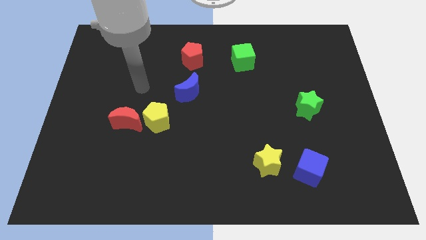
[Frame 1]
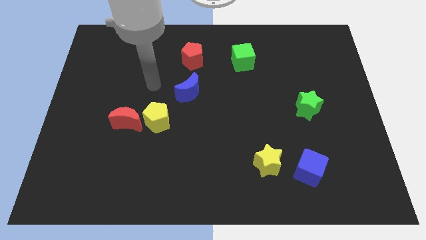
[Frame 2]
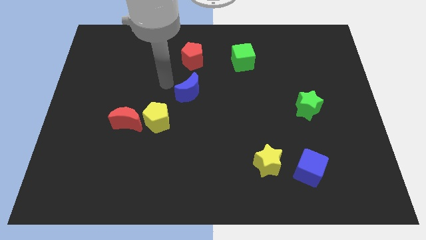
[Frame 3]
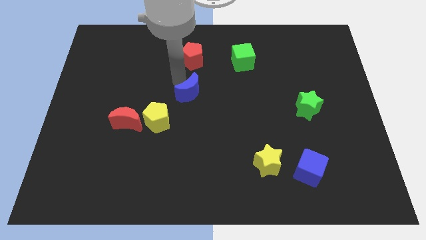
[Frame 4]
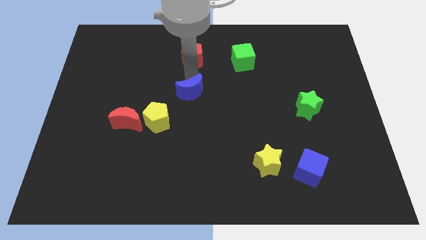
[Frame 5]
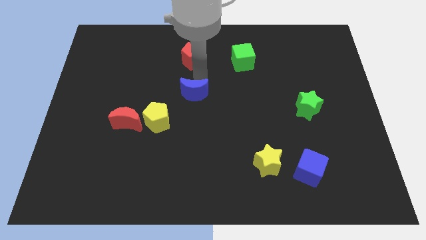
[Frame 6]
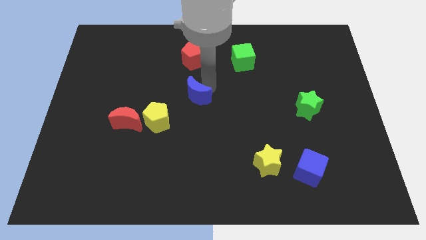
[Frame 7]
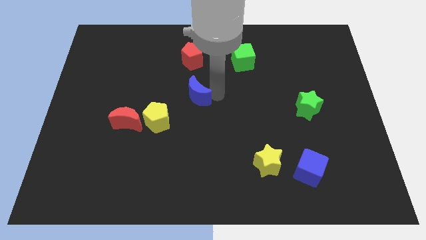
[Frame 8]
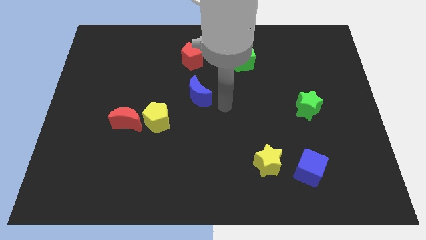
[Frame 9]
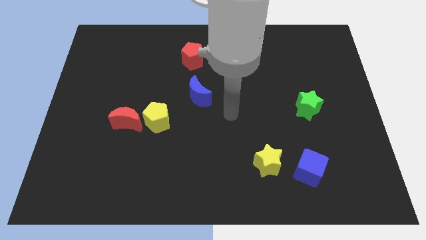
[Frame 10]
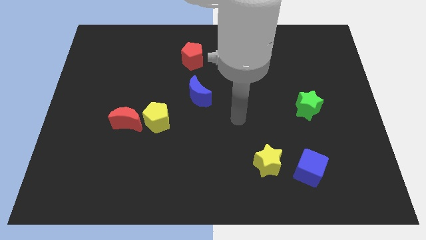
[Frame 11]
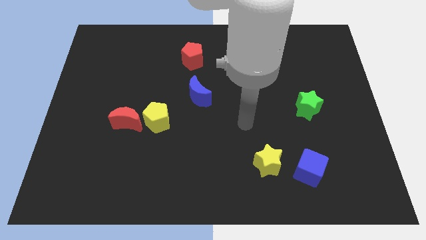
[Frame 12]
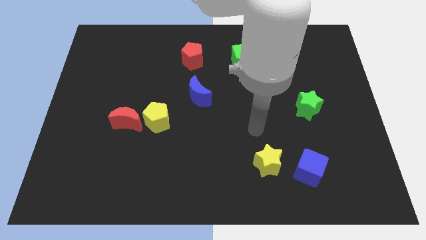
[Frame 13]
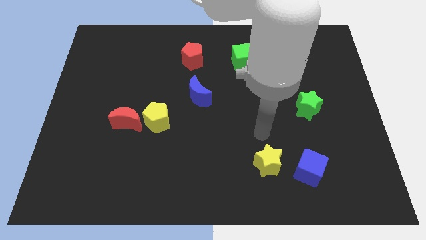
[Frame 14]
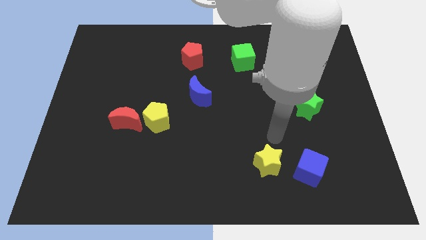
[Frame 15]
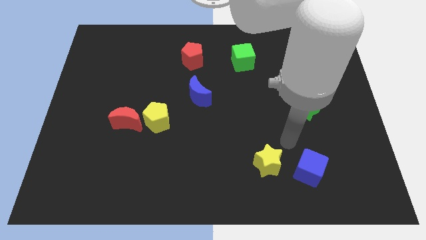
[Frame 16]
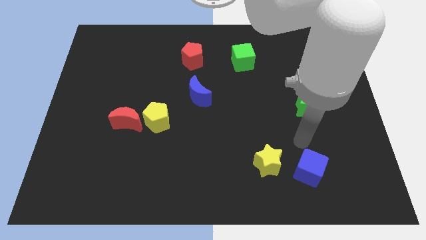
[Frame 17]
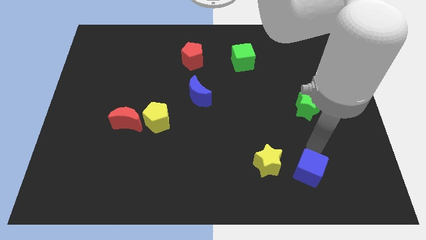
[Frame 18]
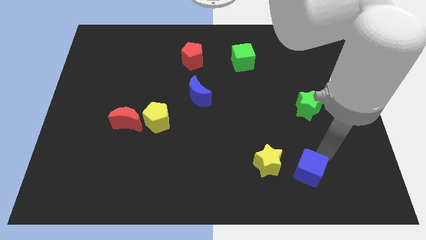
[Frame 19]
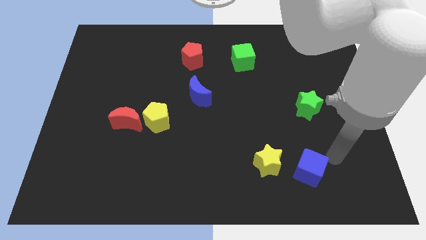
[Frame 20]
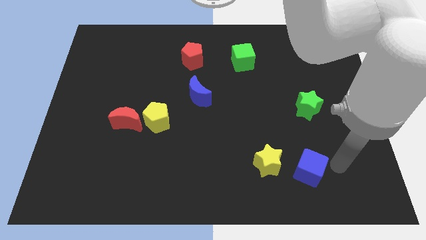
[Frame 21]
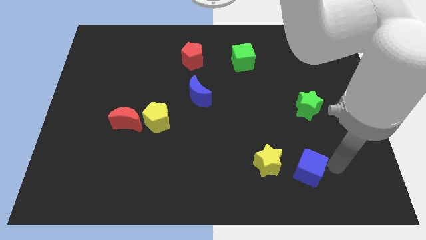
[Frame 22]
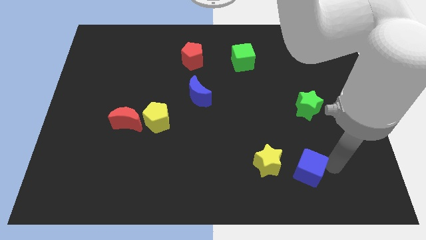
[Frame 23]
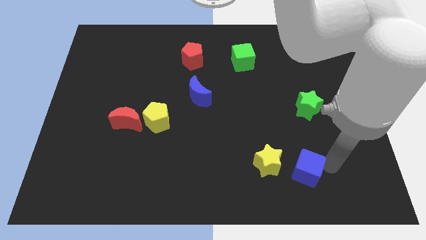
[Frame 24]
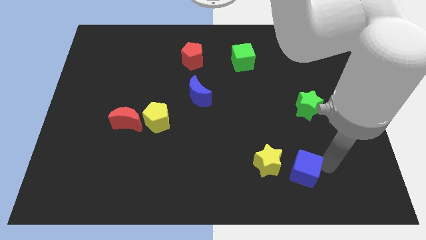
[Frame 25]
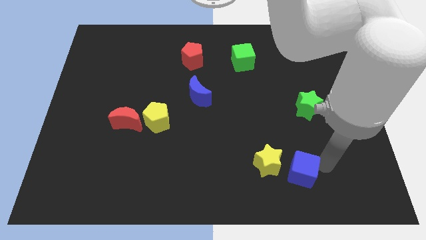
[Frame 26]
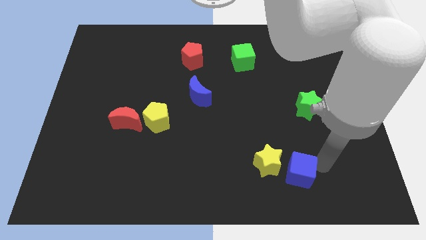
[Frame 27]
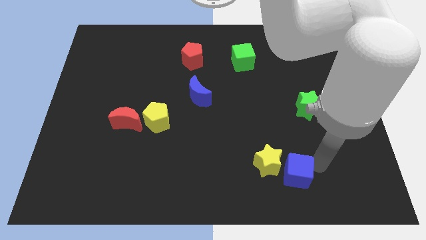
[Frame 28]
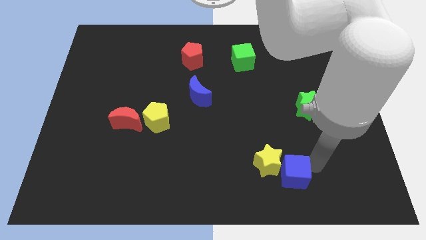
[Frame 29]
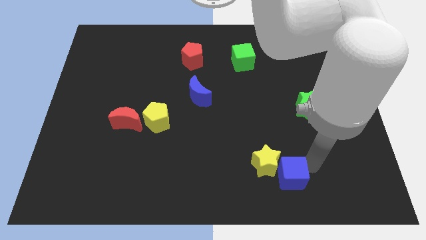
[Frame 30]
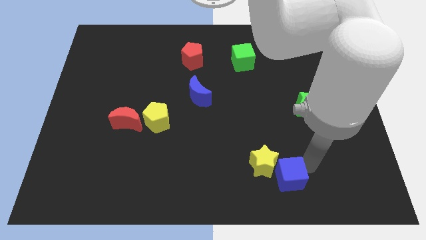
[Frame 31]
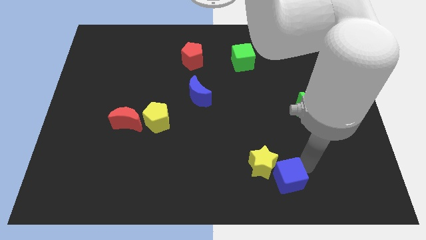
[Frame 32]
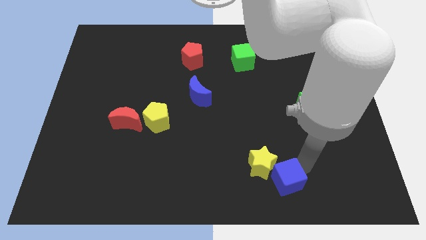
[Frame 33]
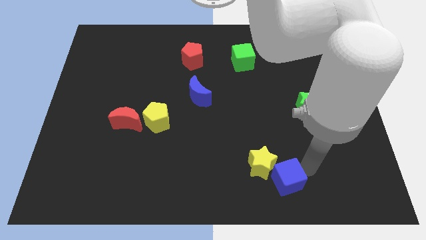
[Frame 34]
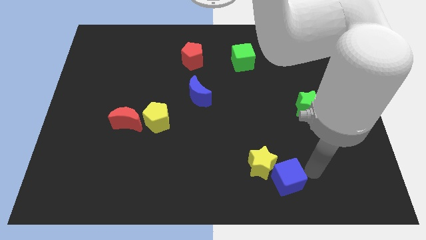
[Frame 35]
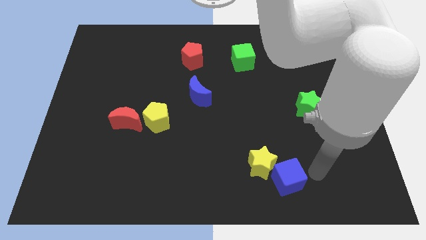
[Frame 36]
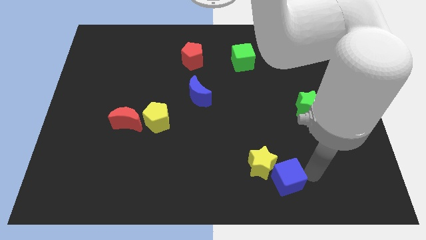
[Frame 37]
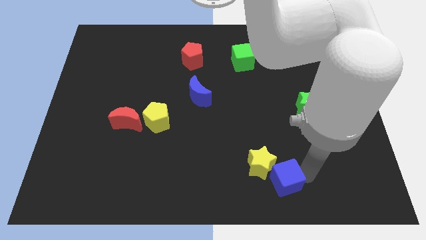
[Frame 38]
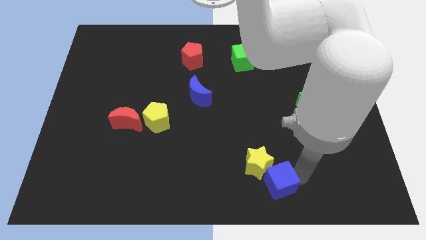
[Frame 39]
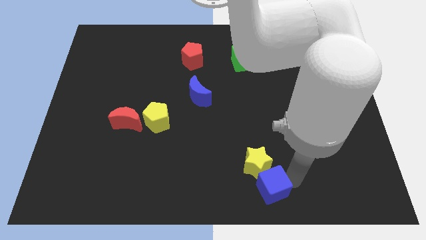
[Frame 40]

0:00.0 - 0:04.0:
push the blue cube to the left a bit

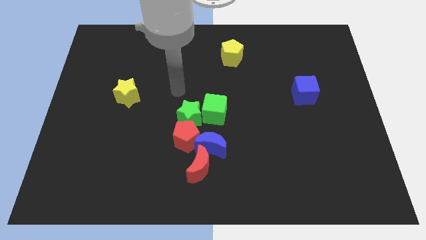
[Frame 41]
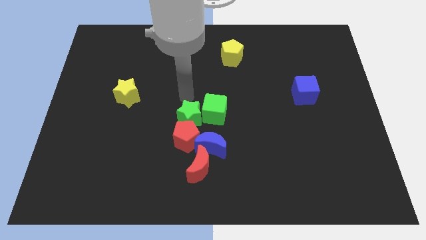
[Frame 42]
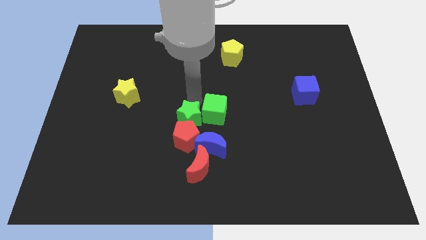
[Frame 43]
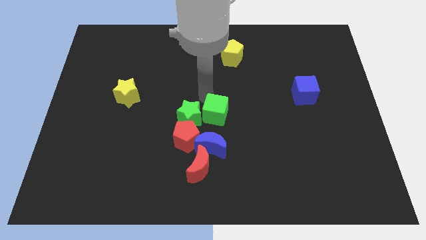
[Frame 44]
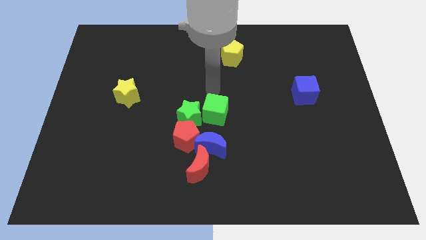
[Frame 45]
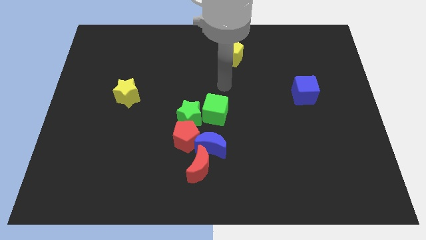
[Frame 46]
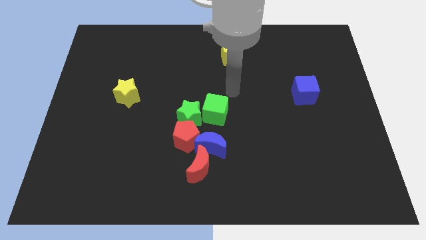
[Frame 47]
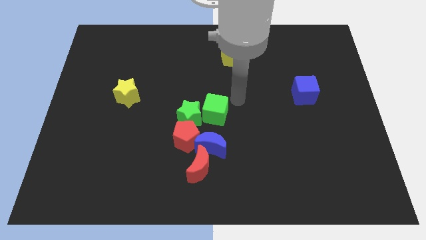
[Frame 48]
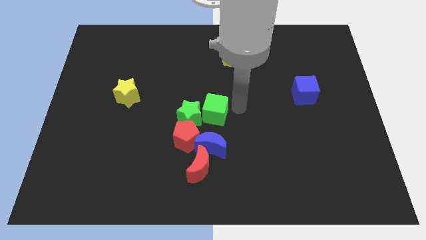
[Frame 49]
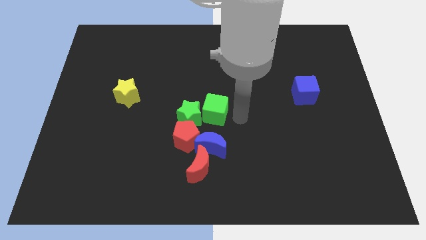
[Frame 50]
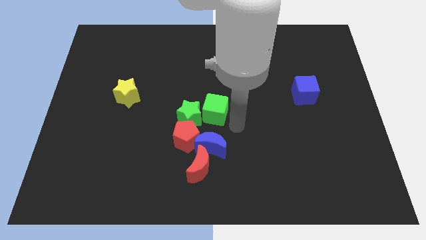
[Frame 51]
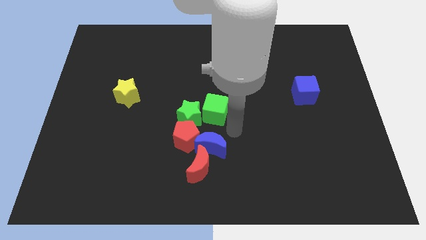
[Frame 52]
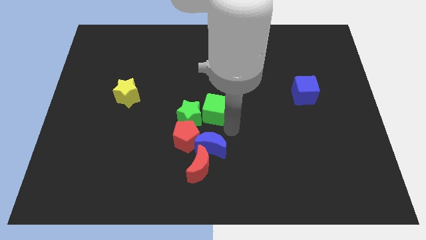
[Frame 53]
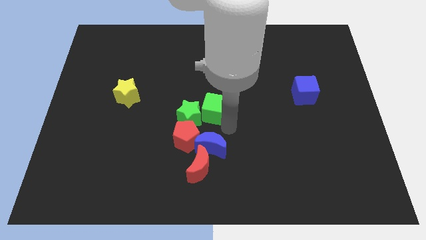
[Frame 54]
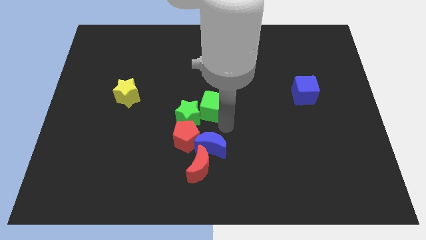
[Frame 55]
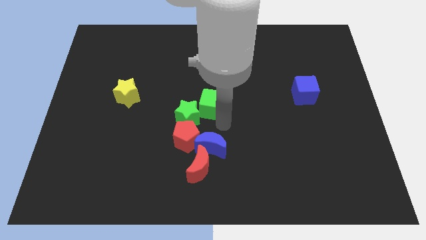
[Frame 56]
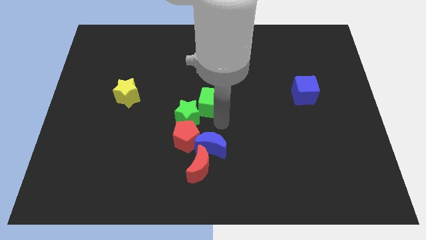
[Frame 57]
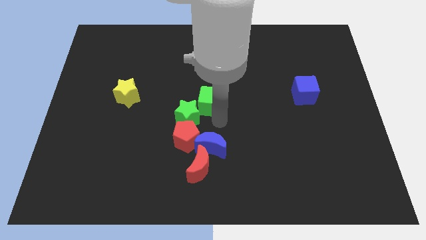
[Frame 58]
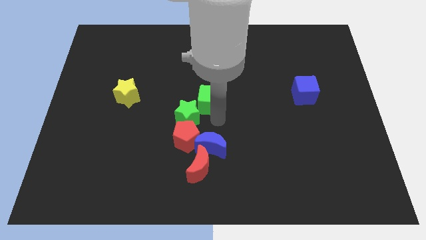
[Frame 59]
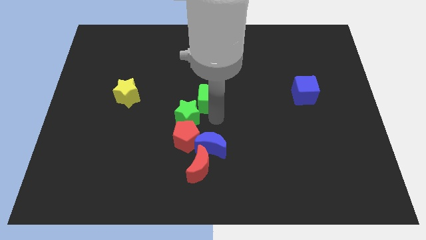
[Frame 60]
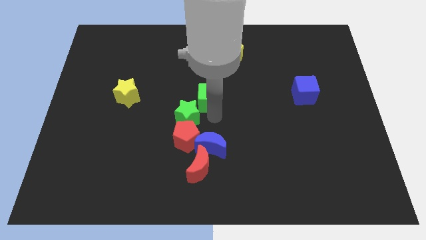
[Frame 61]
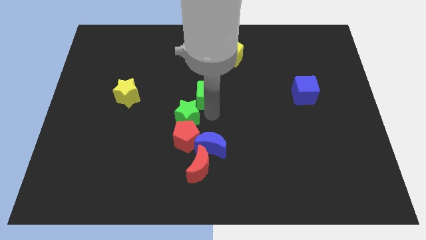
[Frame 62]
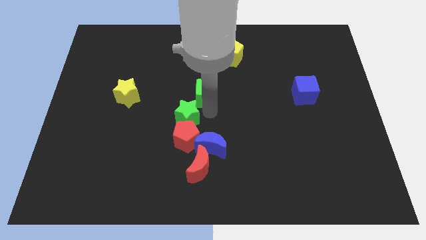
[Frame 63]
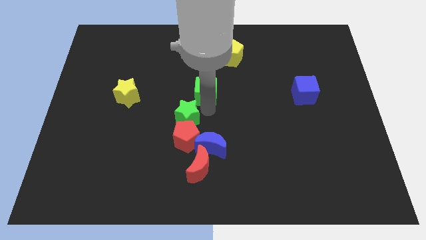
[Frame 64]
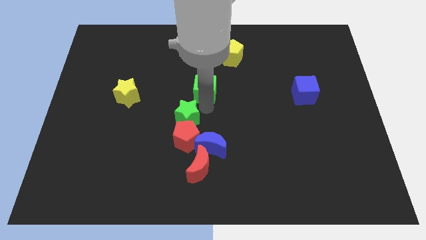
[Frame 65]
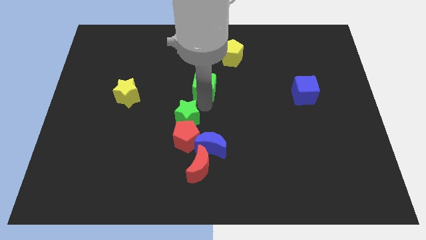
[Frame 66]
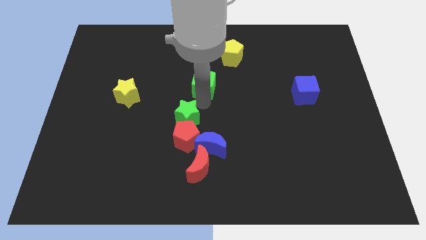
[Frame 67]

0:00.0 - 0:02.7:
slide the green cube a little upwards and left

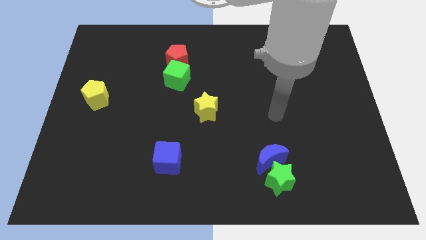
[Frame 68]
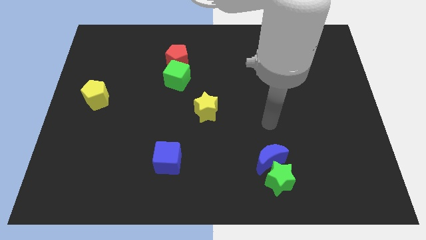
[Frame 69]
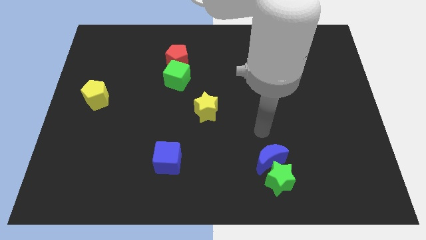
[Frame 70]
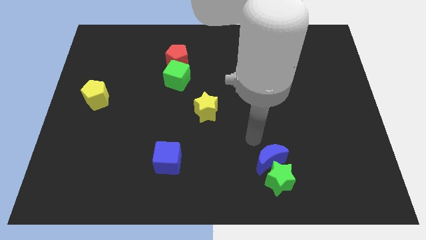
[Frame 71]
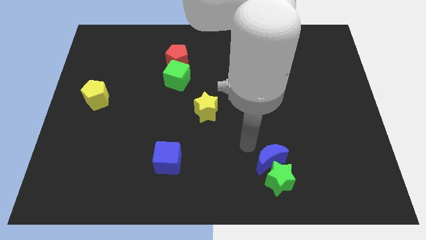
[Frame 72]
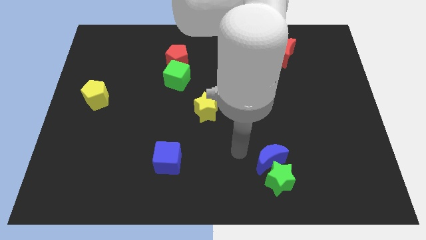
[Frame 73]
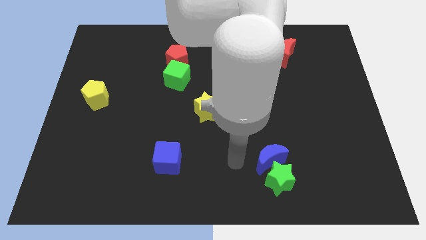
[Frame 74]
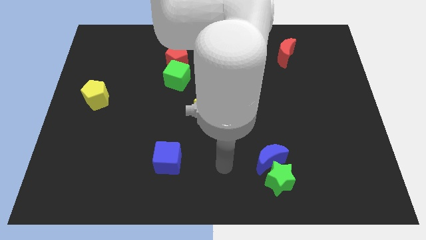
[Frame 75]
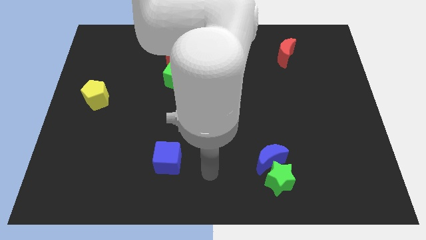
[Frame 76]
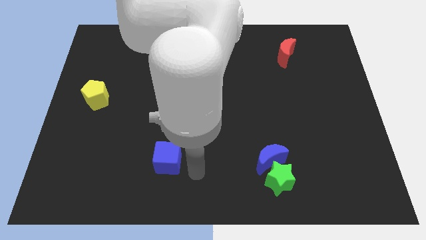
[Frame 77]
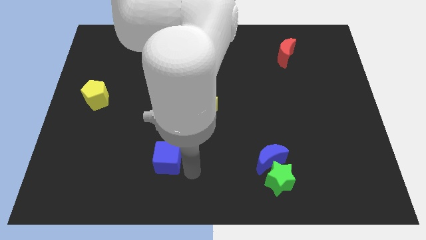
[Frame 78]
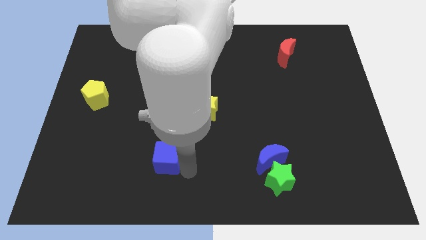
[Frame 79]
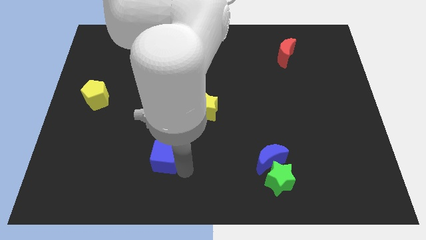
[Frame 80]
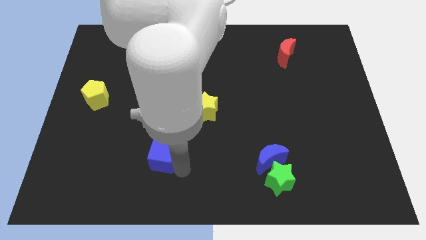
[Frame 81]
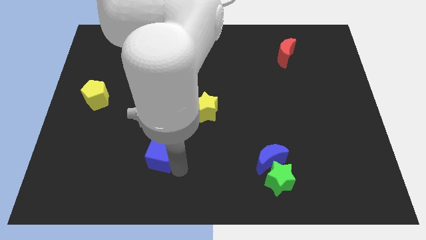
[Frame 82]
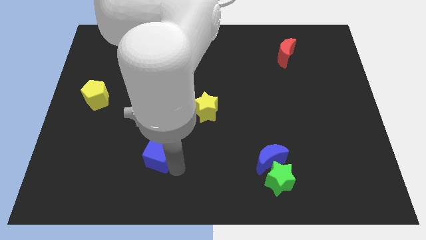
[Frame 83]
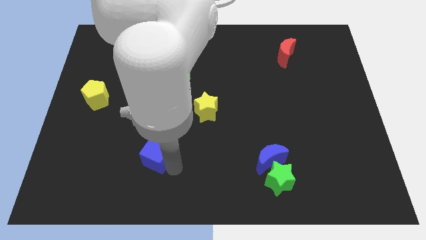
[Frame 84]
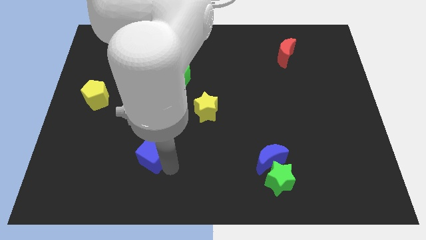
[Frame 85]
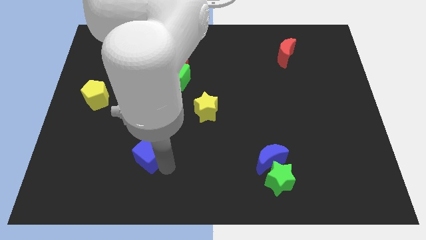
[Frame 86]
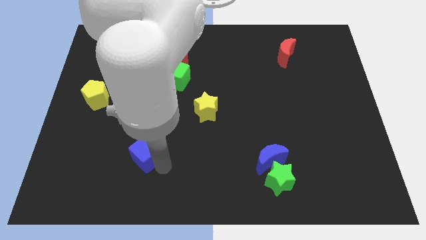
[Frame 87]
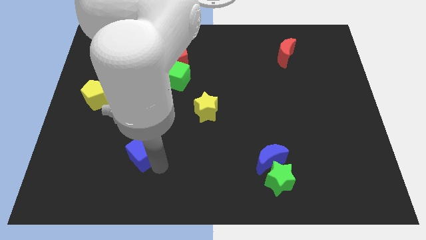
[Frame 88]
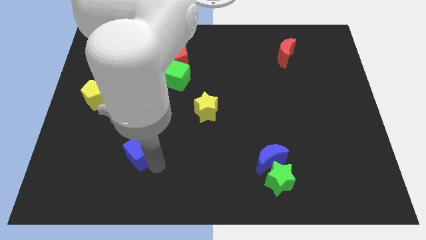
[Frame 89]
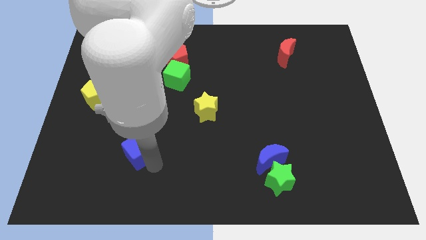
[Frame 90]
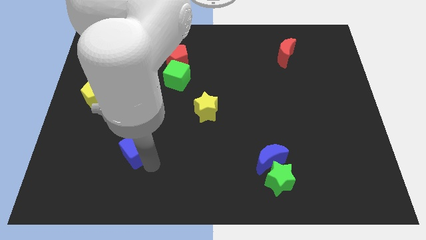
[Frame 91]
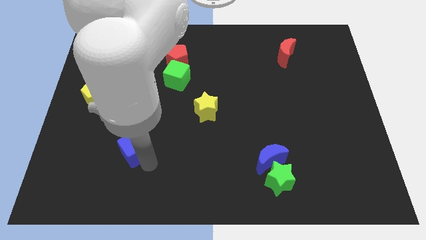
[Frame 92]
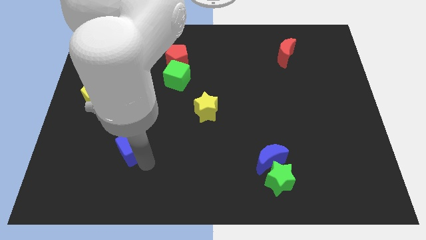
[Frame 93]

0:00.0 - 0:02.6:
push the blue cube up and then to the left a little
